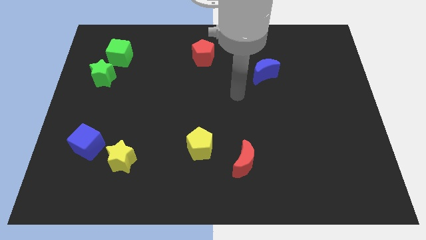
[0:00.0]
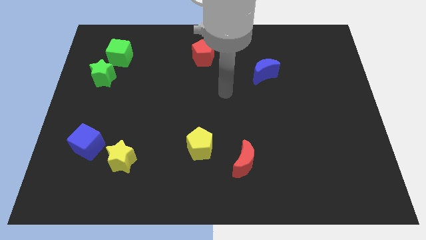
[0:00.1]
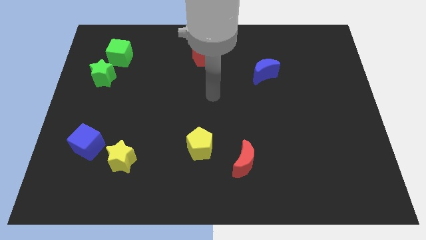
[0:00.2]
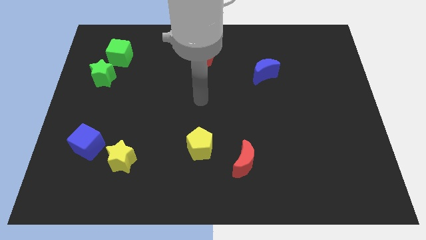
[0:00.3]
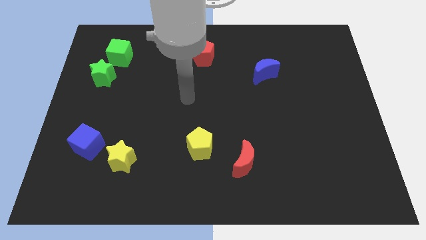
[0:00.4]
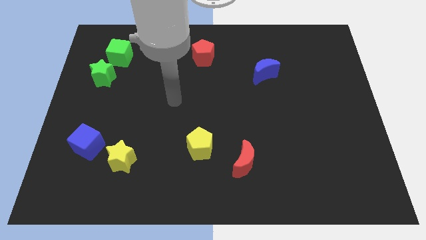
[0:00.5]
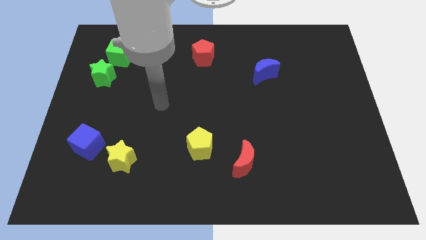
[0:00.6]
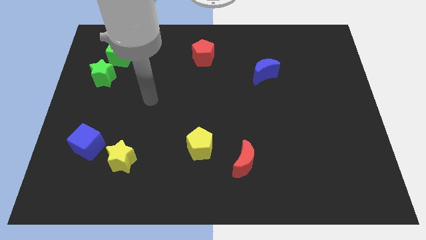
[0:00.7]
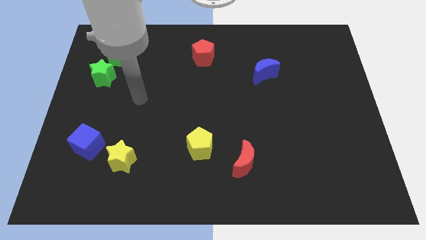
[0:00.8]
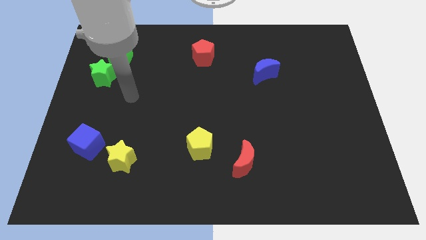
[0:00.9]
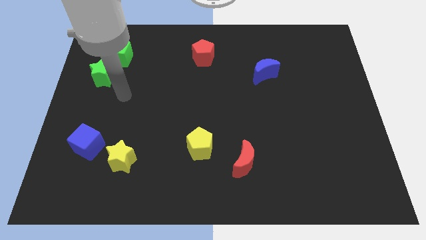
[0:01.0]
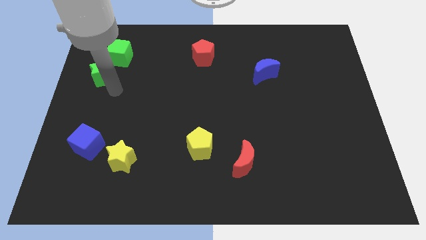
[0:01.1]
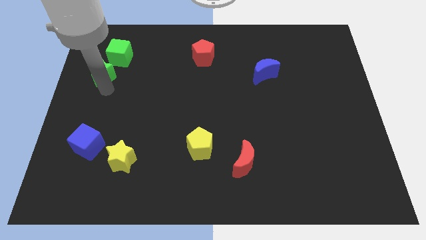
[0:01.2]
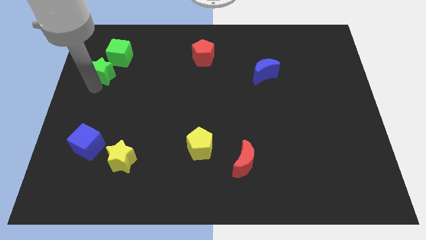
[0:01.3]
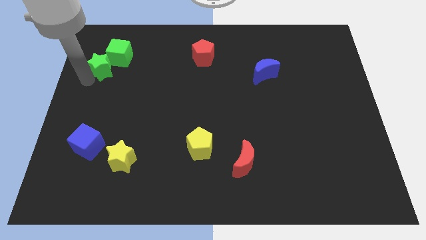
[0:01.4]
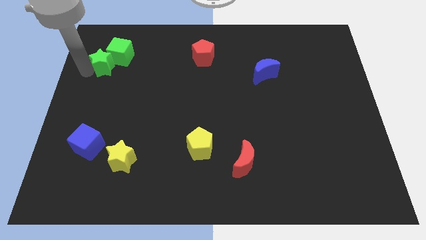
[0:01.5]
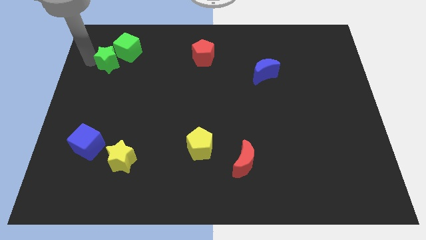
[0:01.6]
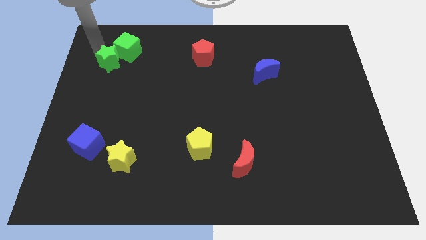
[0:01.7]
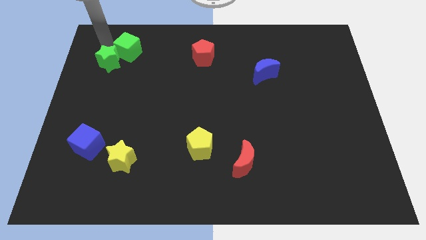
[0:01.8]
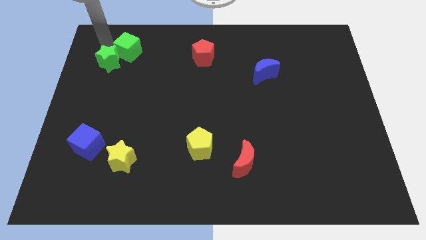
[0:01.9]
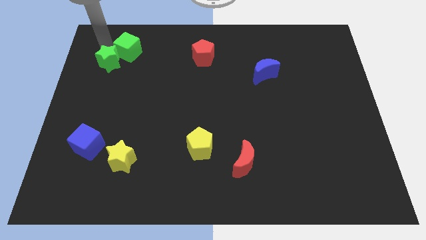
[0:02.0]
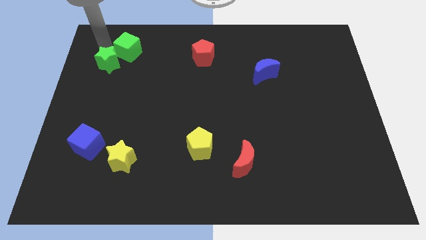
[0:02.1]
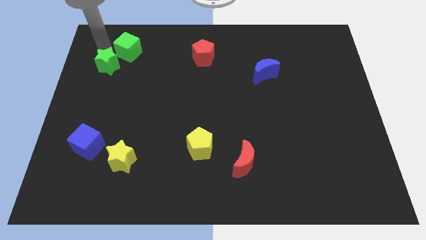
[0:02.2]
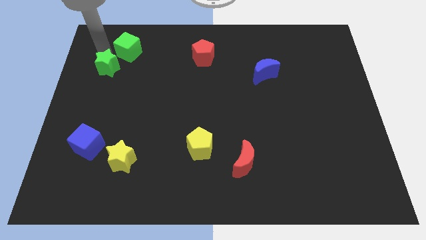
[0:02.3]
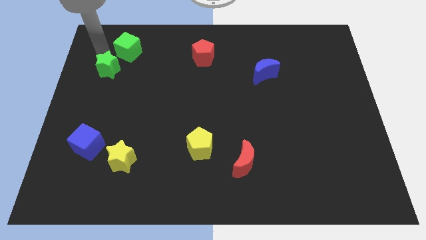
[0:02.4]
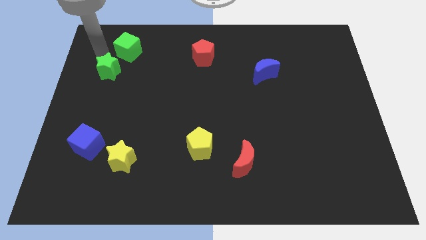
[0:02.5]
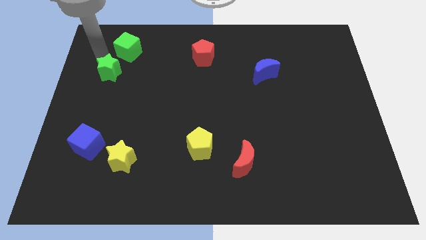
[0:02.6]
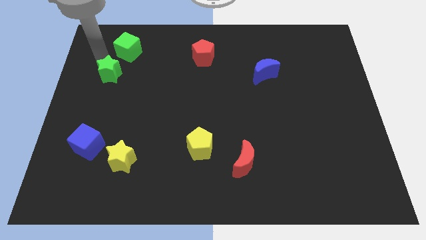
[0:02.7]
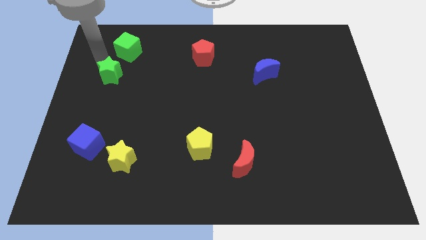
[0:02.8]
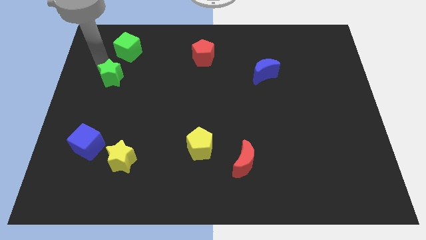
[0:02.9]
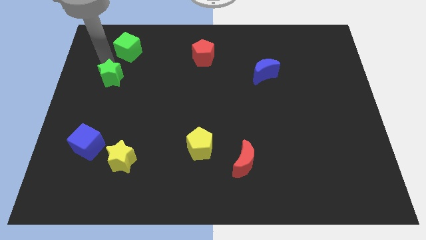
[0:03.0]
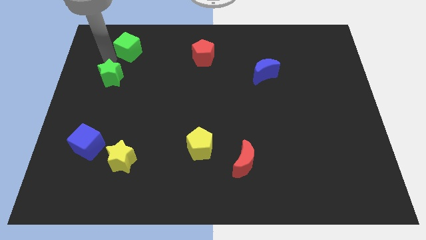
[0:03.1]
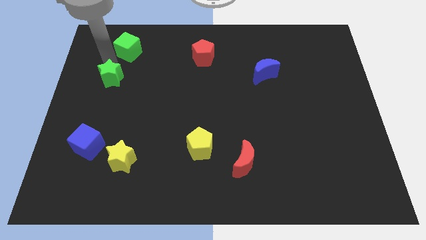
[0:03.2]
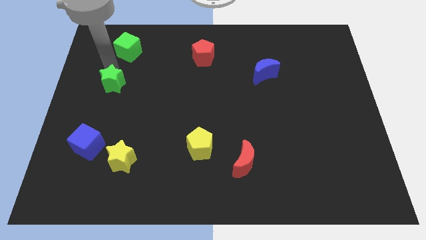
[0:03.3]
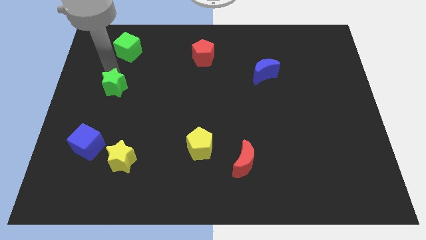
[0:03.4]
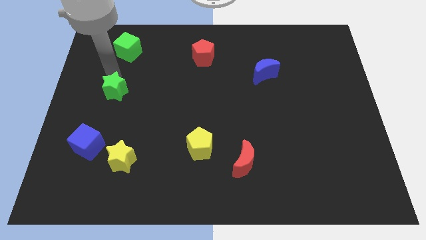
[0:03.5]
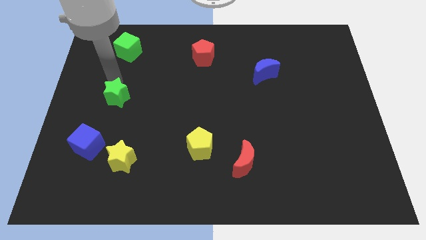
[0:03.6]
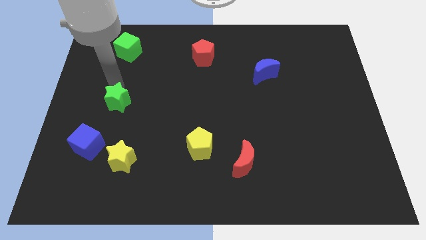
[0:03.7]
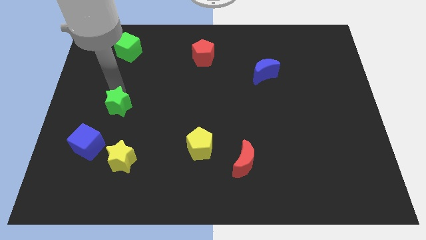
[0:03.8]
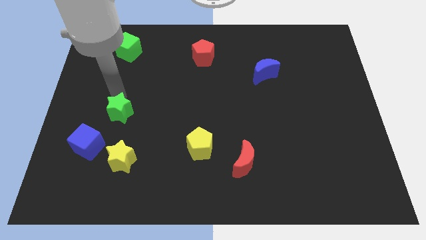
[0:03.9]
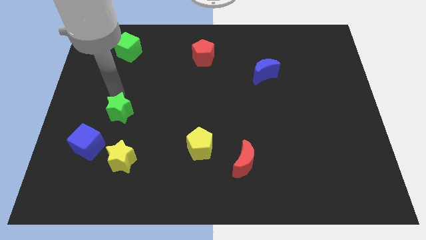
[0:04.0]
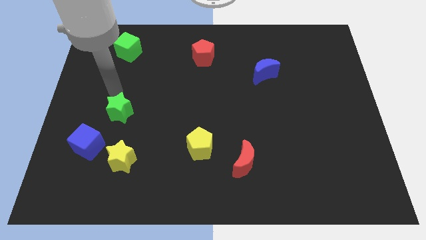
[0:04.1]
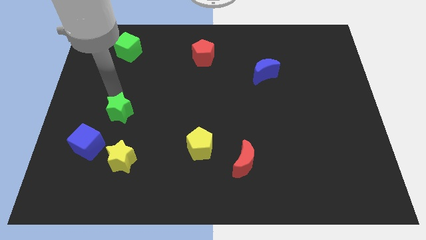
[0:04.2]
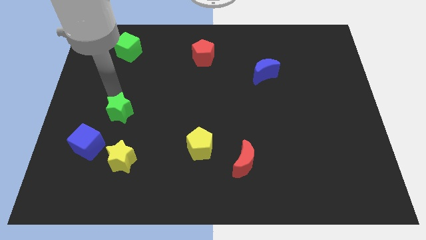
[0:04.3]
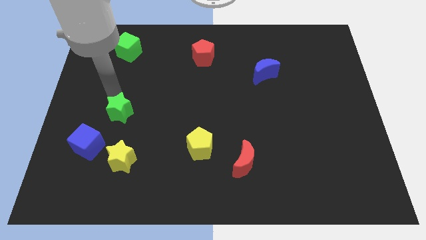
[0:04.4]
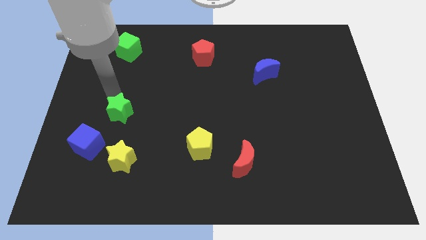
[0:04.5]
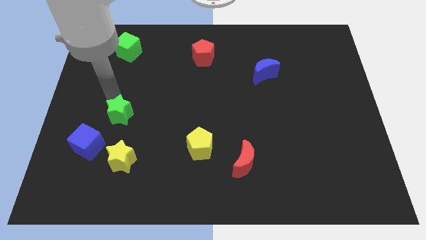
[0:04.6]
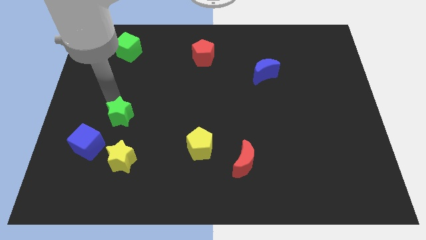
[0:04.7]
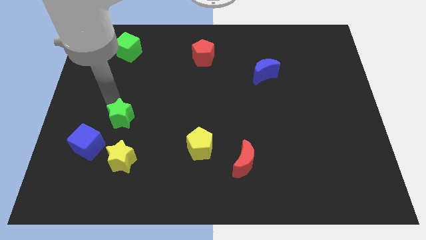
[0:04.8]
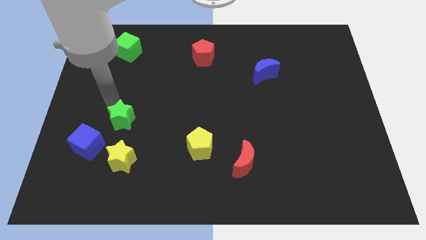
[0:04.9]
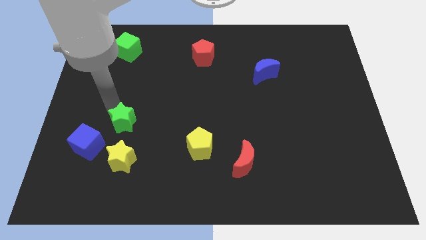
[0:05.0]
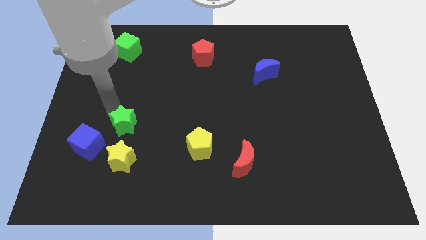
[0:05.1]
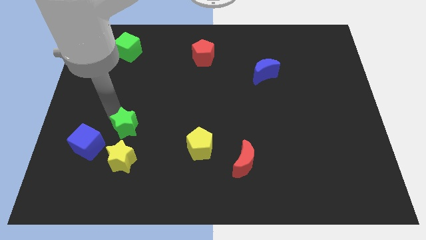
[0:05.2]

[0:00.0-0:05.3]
put the green star to the right side of the blue cube

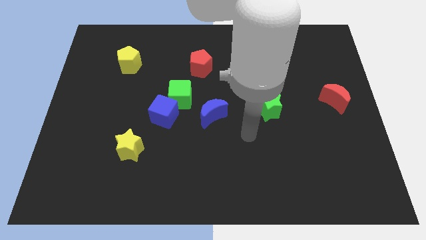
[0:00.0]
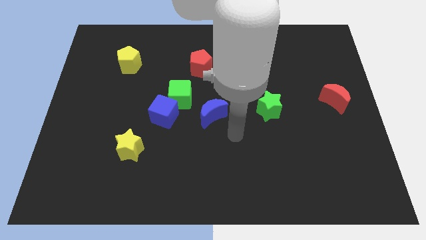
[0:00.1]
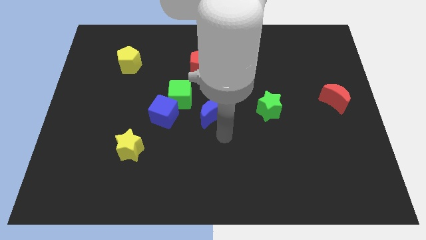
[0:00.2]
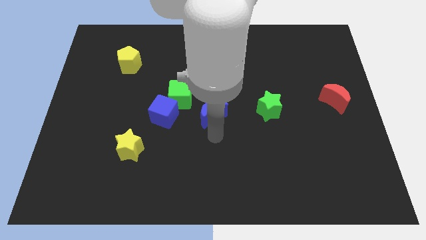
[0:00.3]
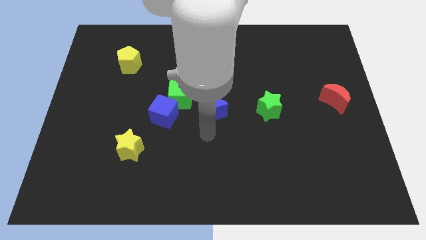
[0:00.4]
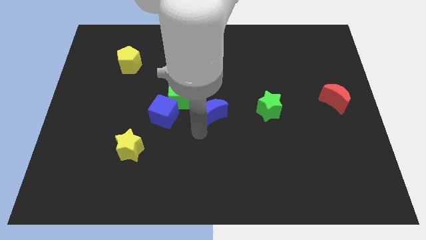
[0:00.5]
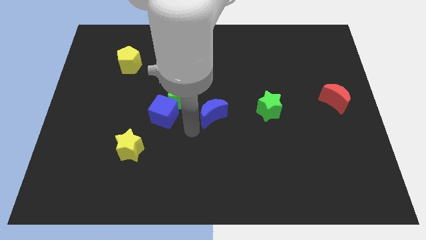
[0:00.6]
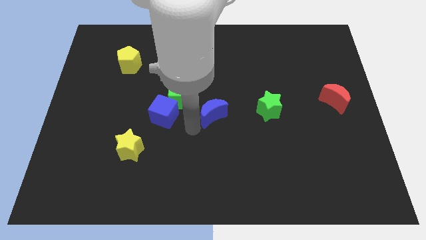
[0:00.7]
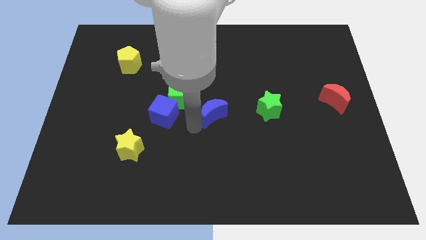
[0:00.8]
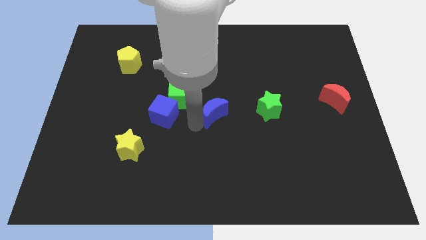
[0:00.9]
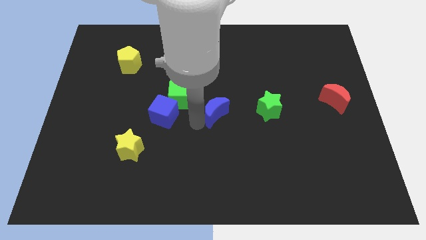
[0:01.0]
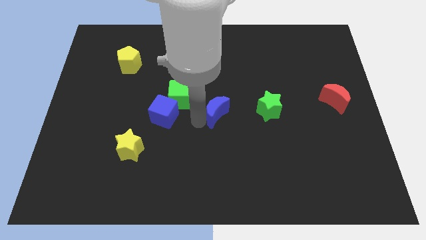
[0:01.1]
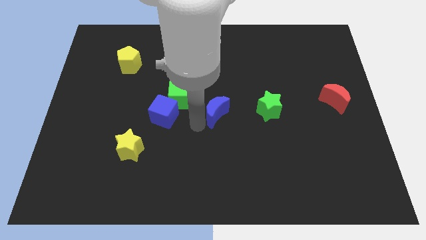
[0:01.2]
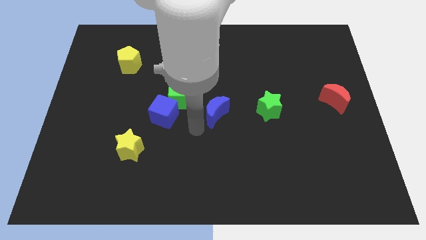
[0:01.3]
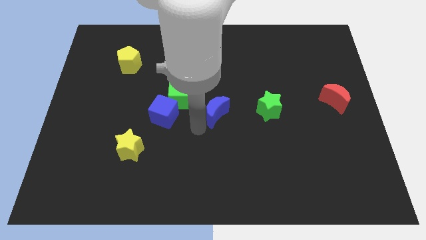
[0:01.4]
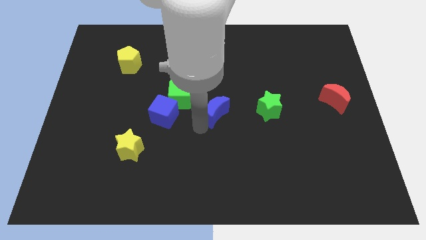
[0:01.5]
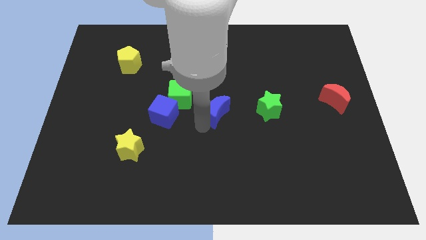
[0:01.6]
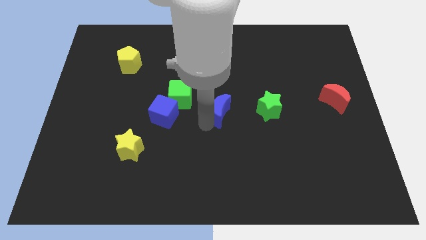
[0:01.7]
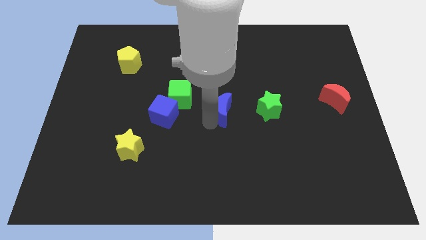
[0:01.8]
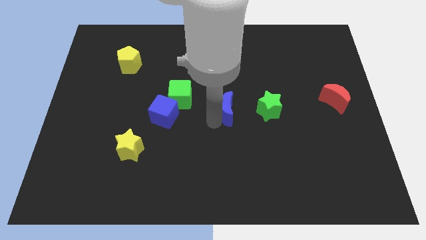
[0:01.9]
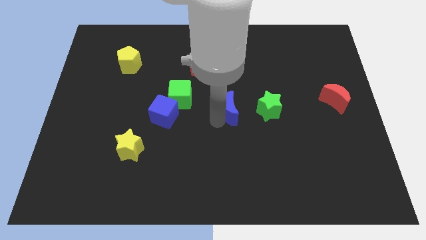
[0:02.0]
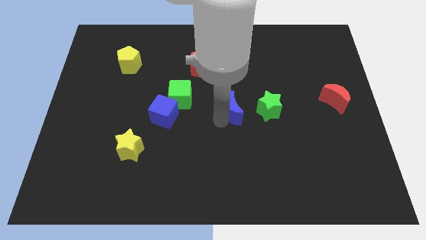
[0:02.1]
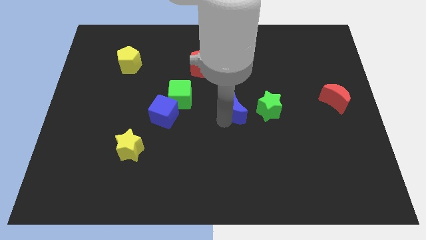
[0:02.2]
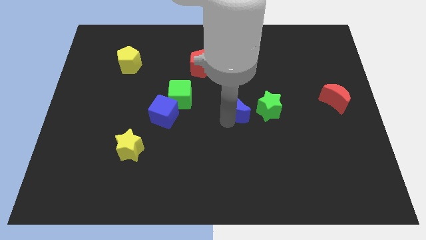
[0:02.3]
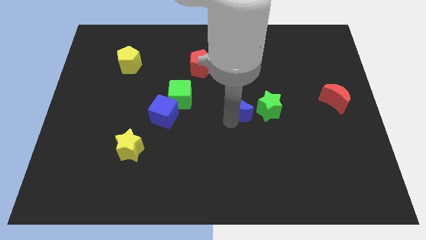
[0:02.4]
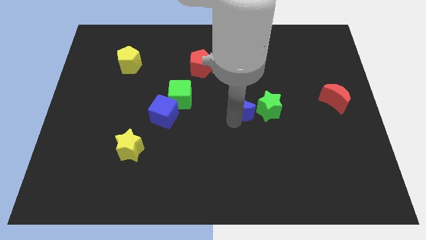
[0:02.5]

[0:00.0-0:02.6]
put the blue moon to the top left of the green star
